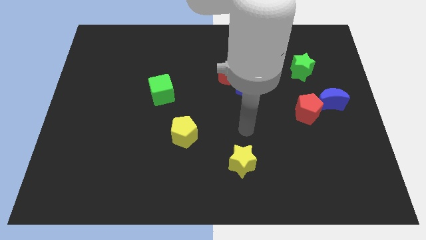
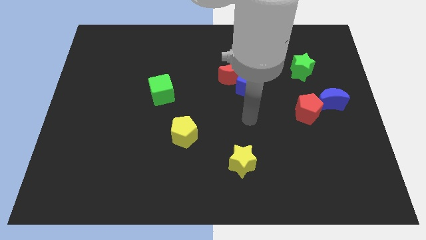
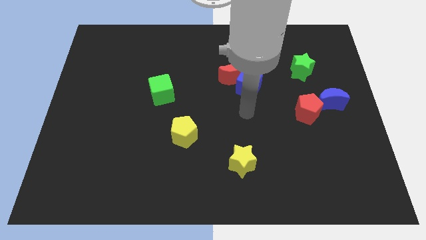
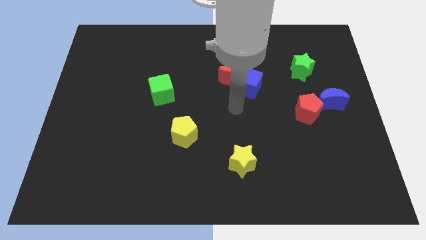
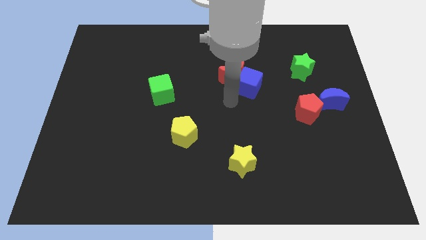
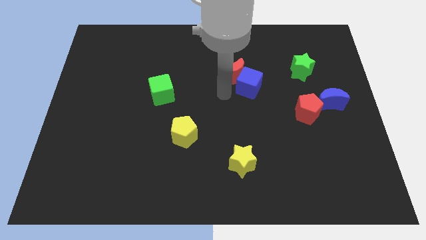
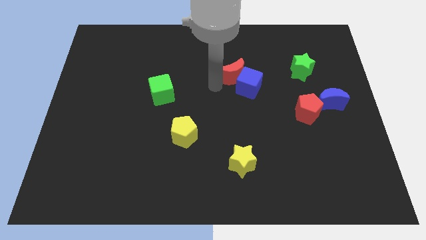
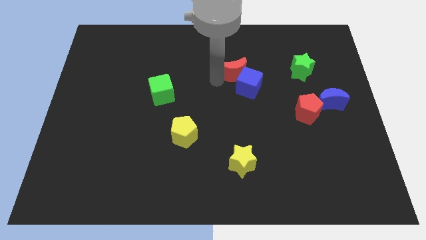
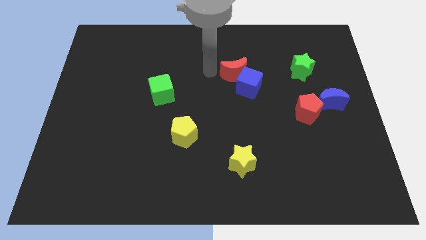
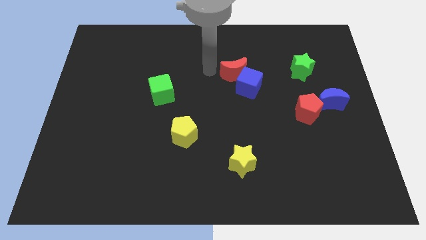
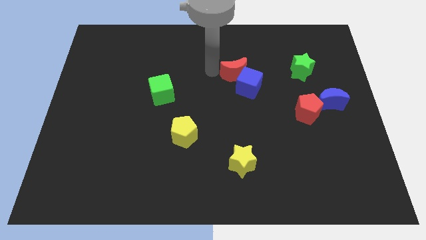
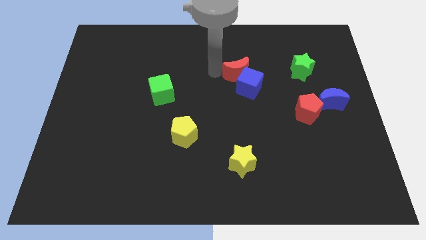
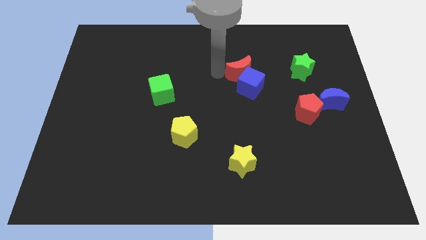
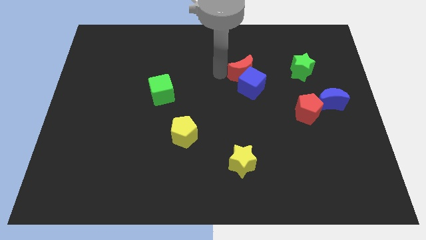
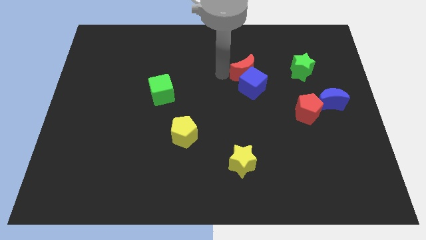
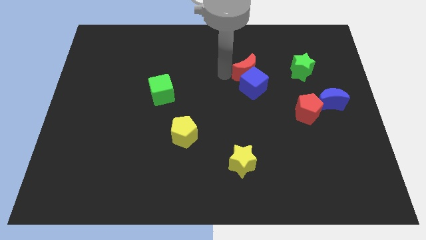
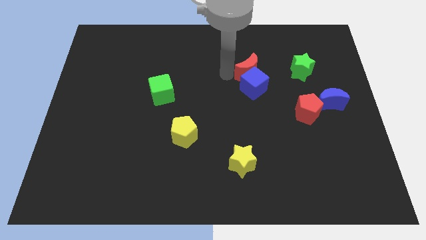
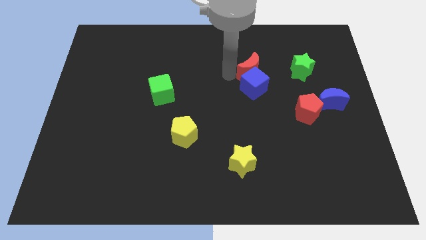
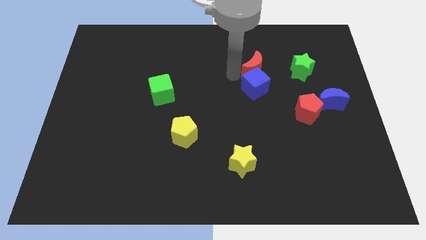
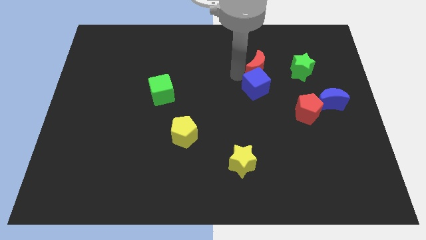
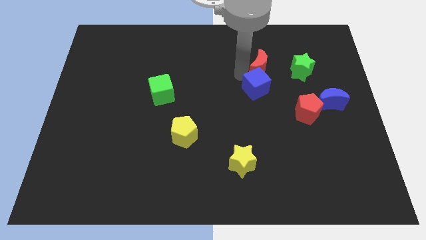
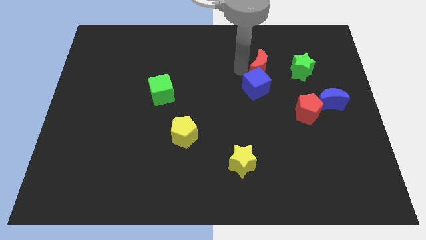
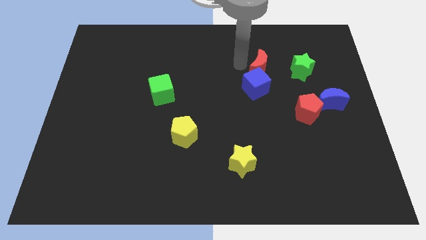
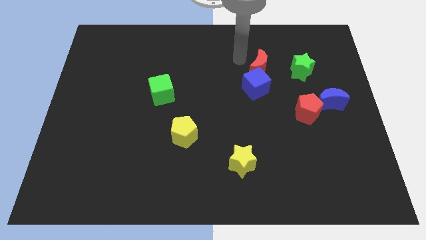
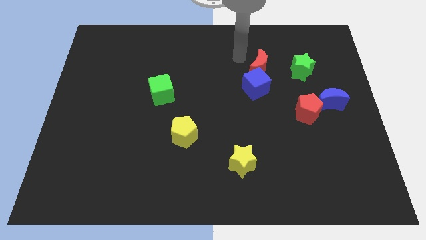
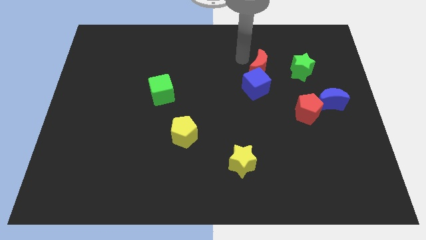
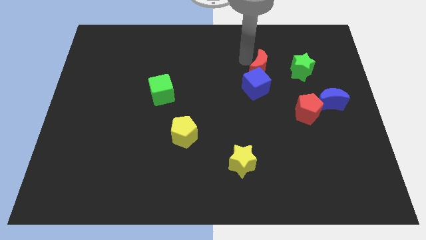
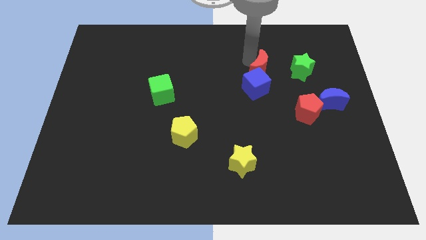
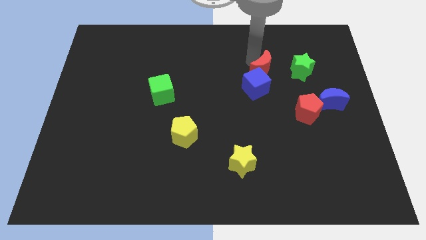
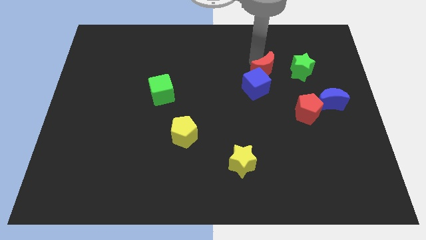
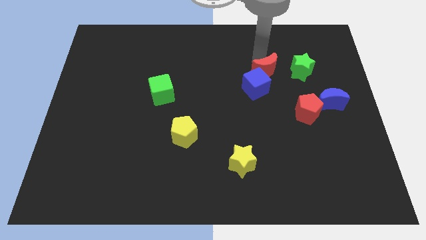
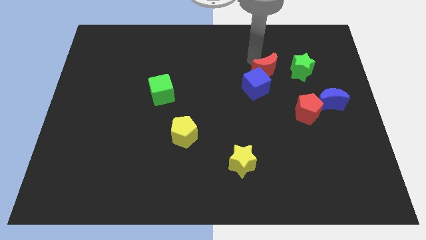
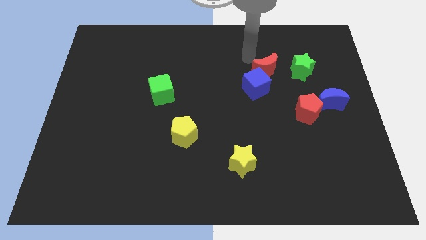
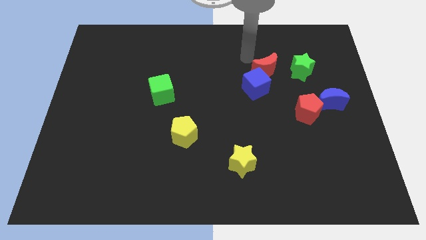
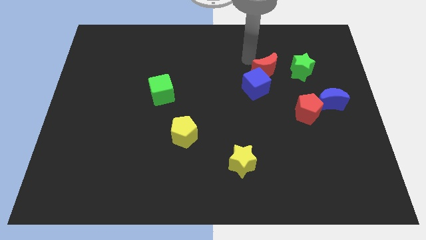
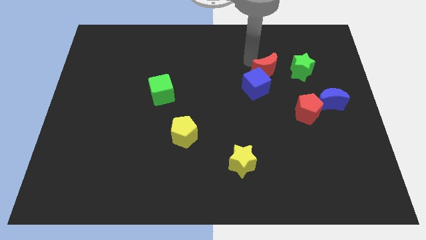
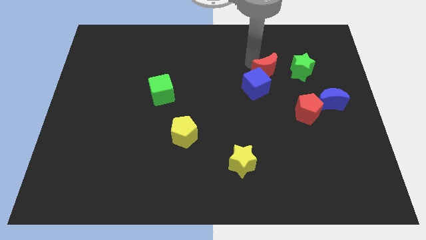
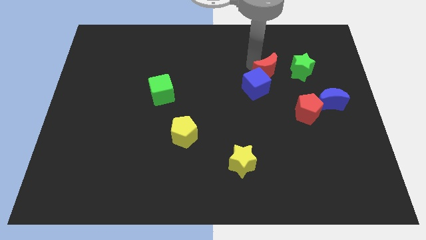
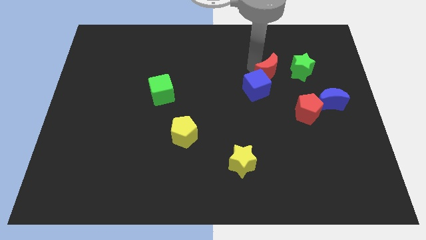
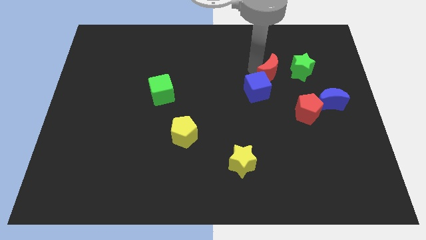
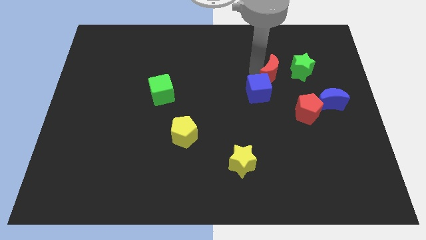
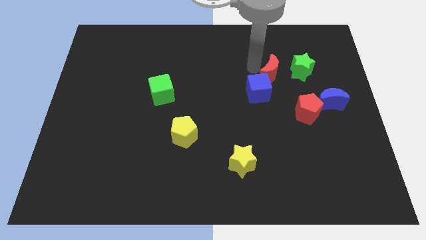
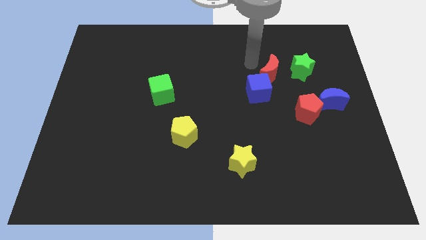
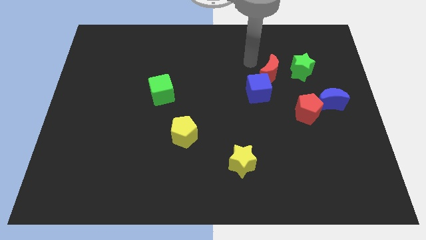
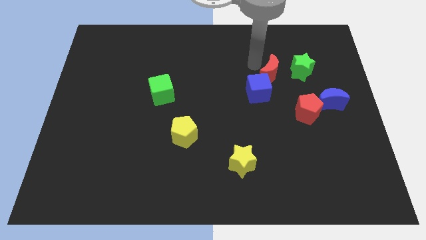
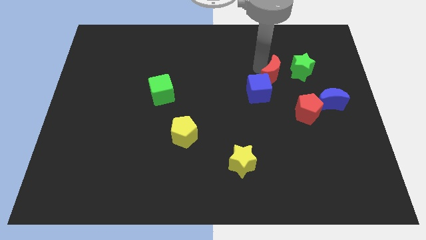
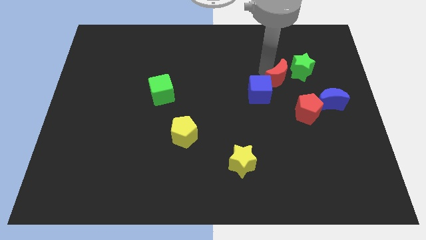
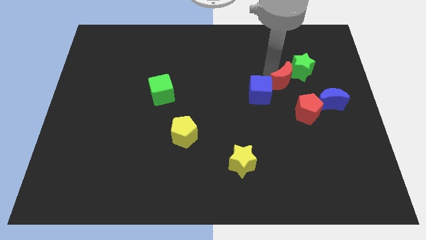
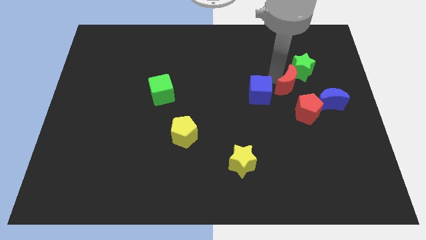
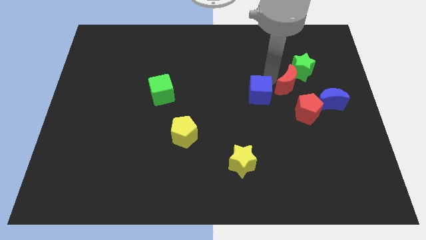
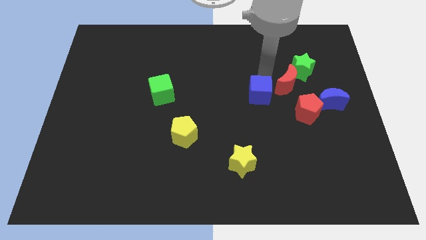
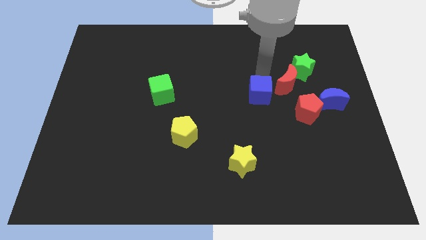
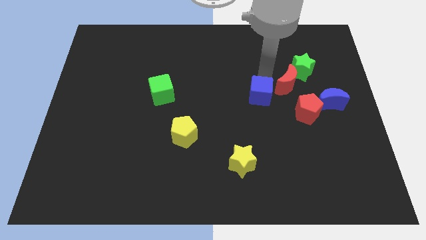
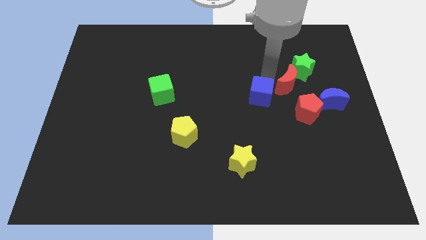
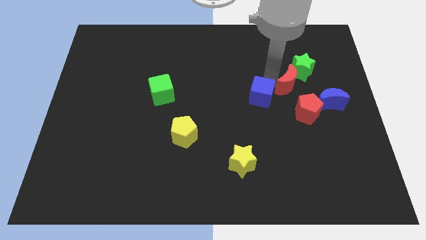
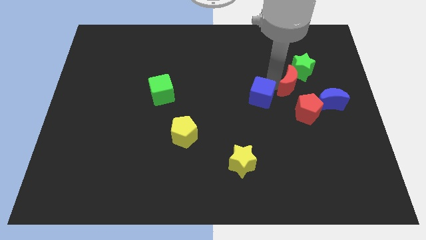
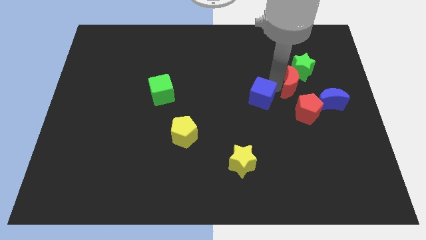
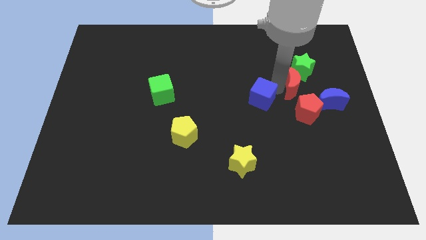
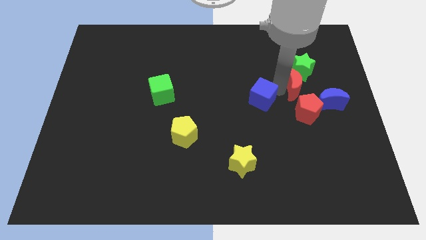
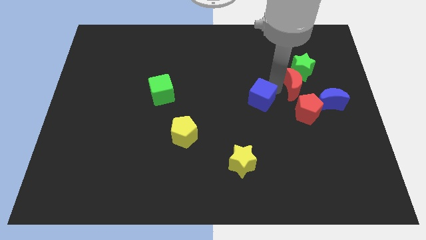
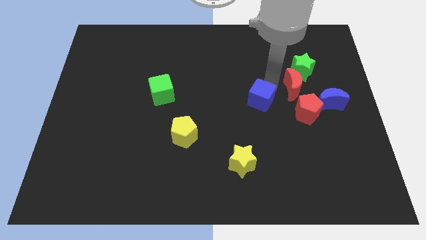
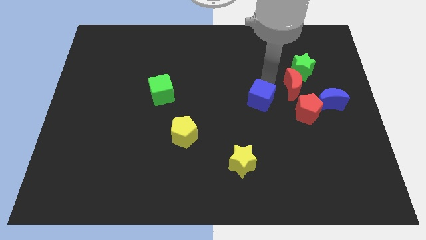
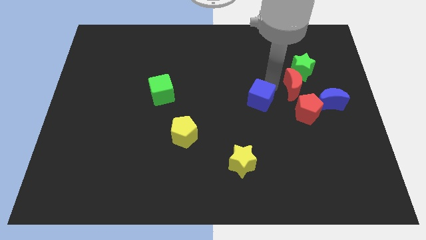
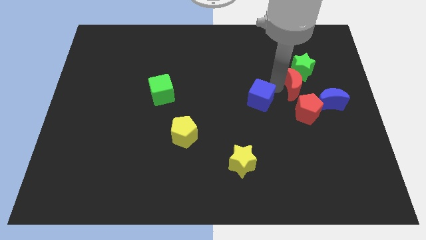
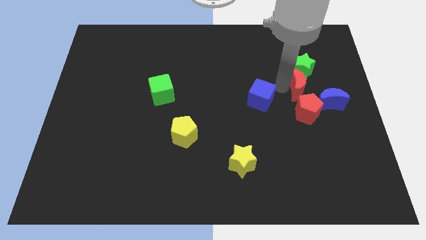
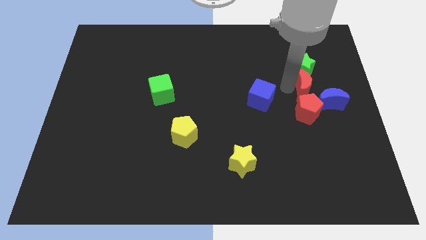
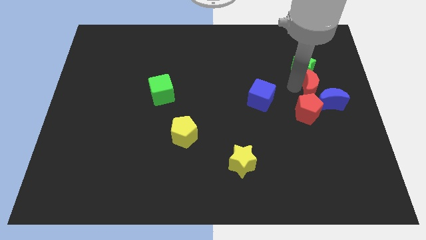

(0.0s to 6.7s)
put the red moon to the blue moon

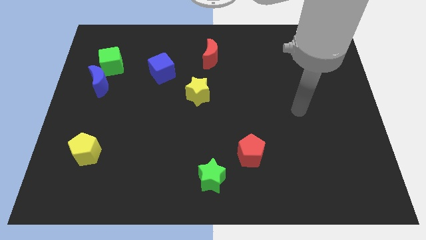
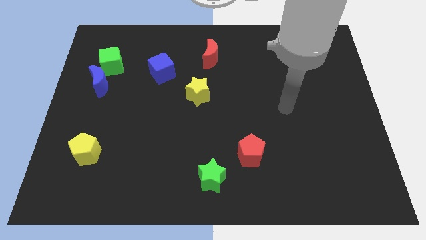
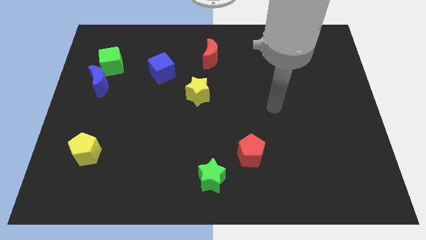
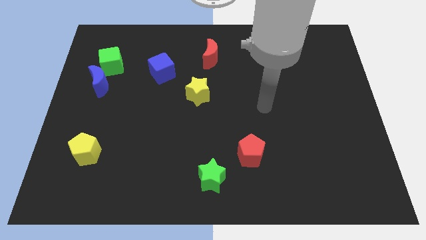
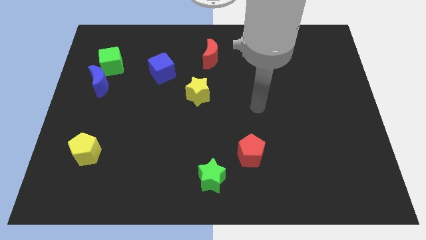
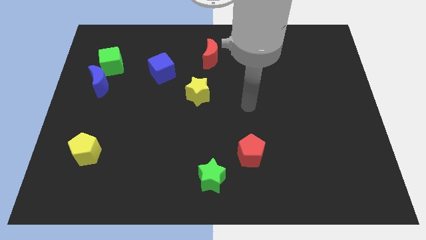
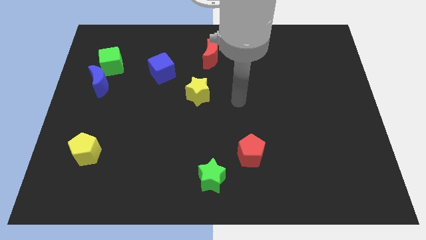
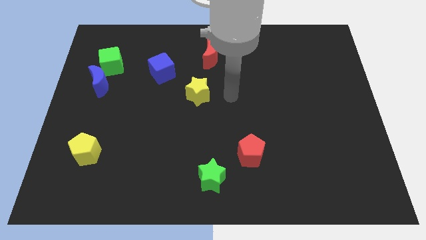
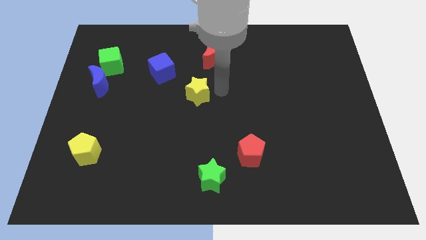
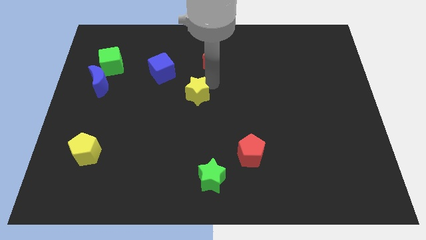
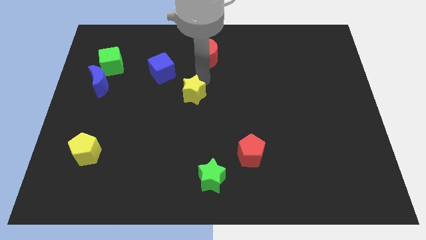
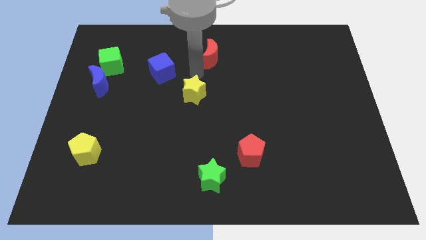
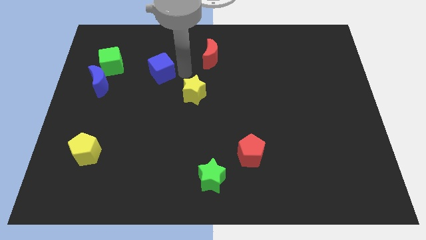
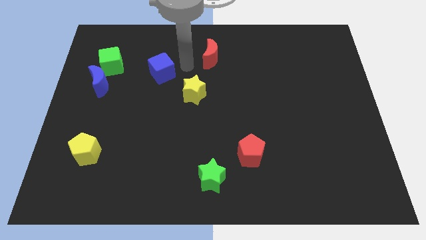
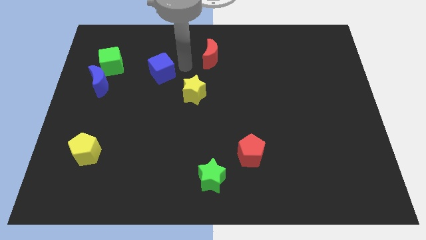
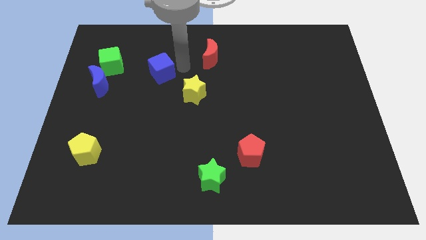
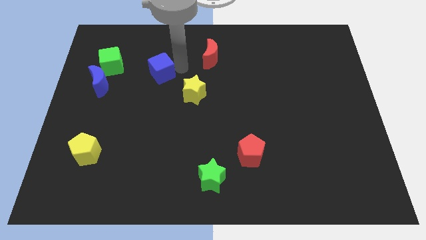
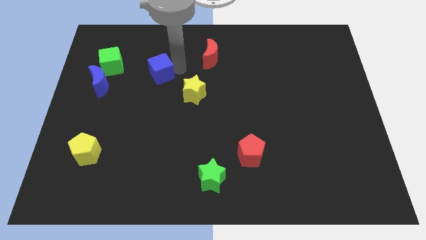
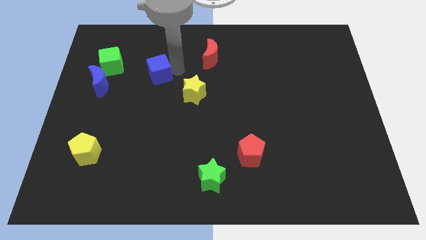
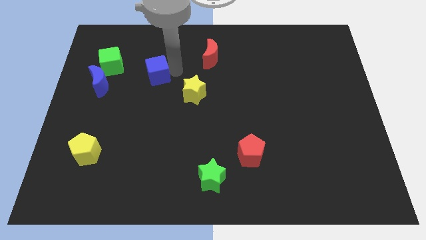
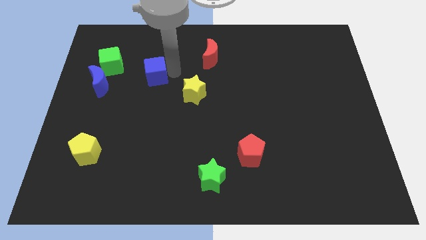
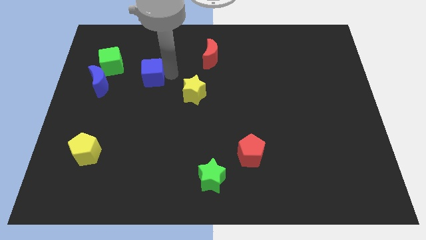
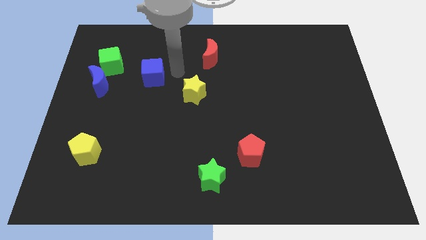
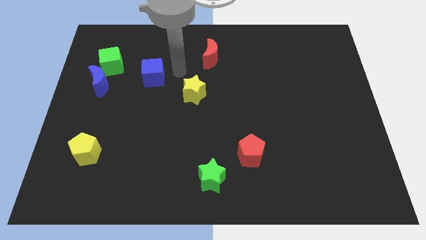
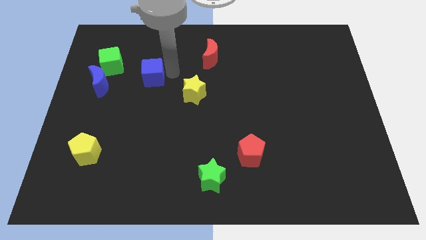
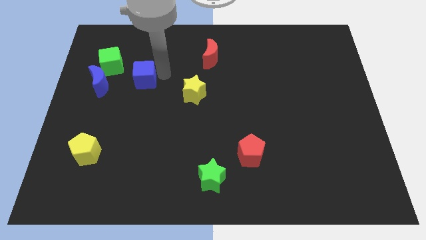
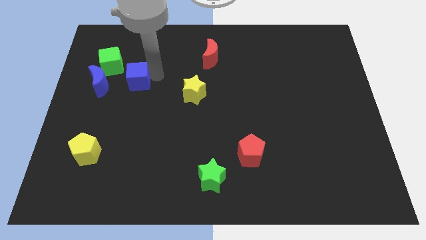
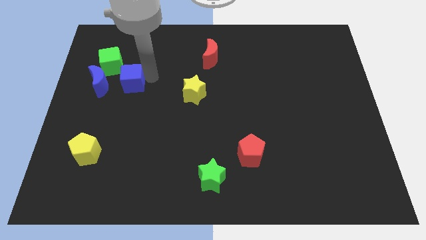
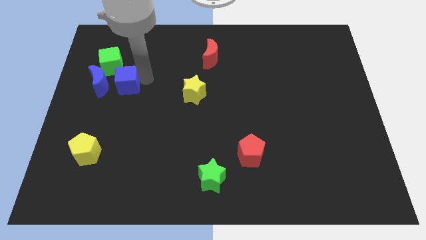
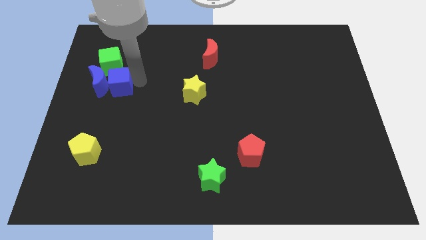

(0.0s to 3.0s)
move the blue cube close to the blue moon
